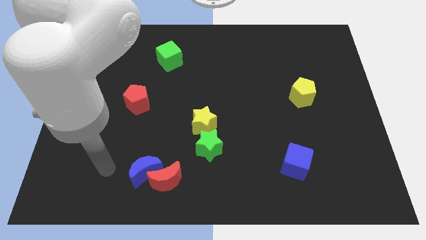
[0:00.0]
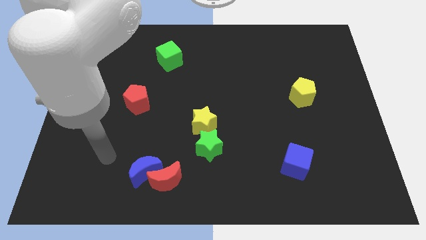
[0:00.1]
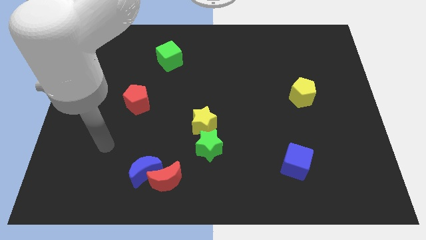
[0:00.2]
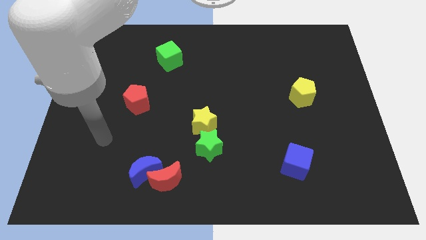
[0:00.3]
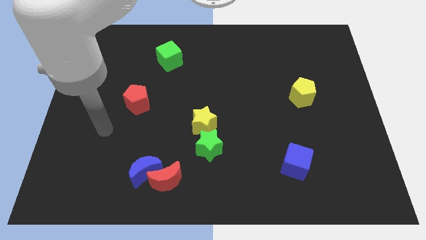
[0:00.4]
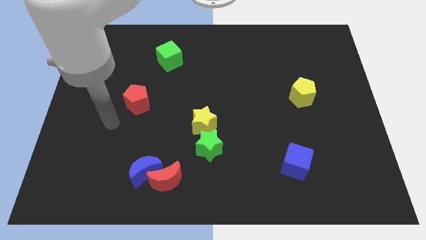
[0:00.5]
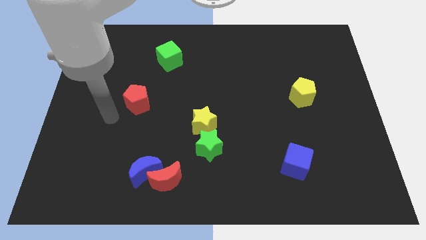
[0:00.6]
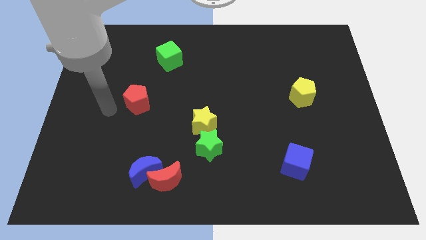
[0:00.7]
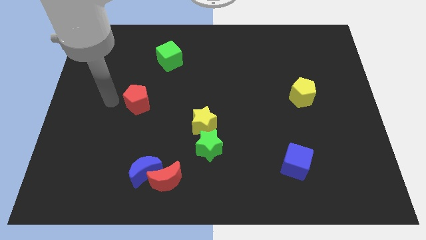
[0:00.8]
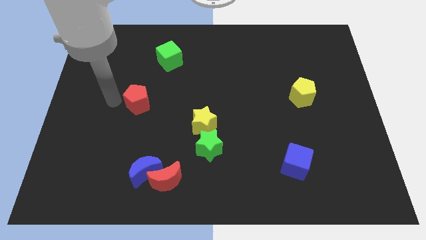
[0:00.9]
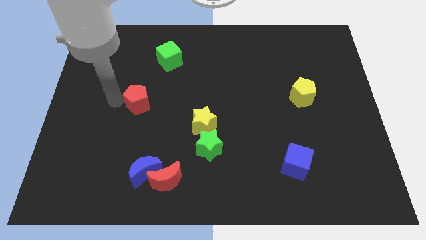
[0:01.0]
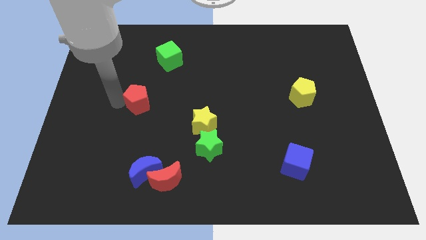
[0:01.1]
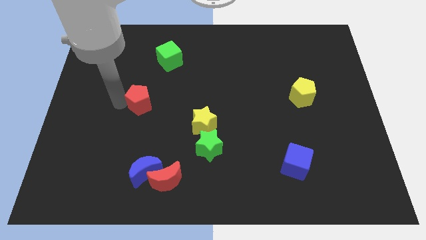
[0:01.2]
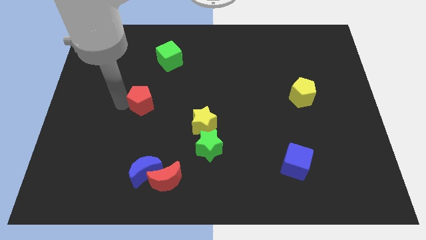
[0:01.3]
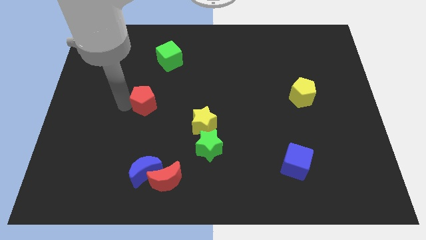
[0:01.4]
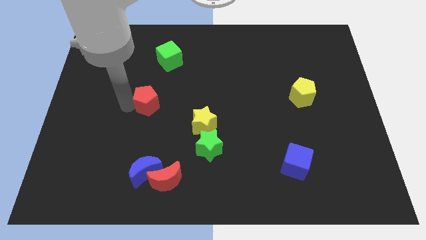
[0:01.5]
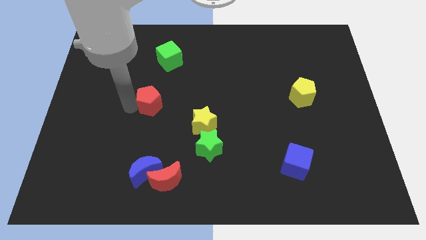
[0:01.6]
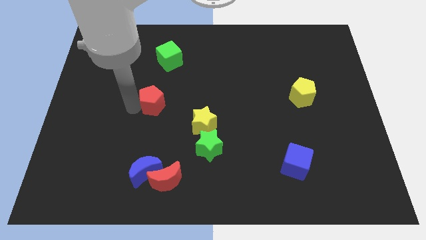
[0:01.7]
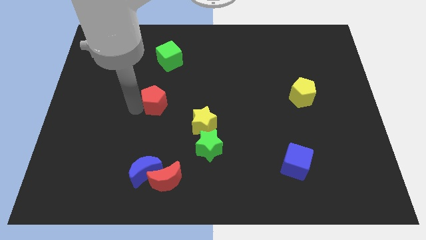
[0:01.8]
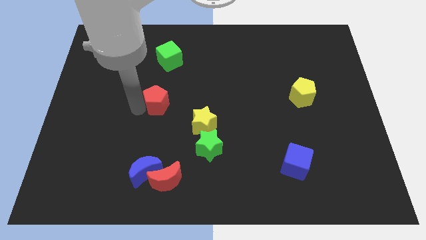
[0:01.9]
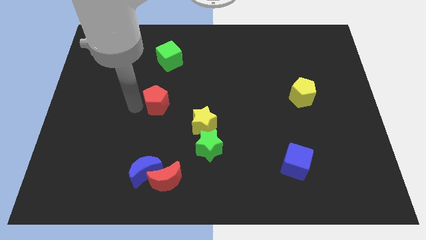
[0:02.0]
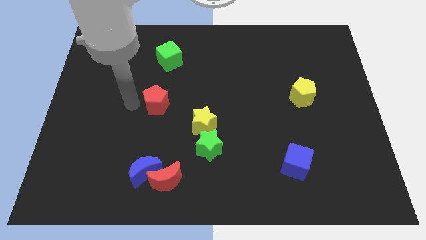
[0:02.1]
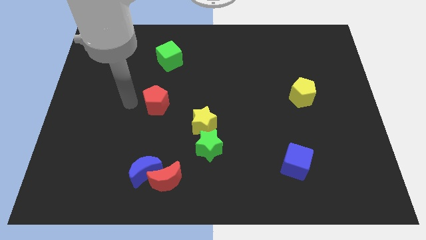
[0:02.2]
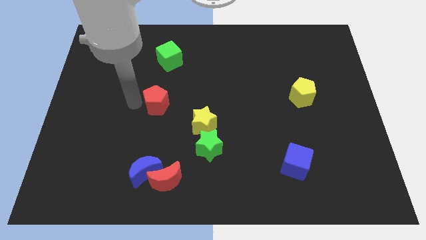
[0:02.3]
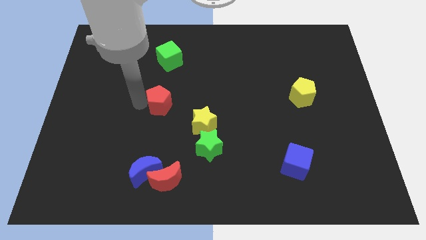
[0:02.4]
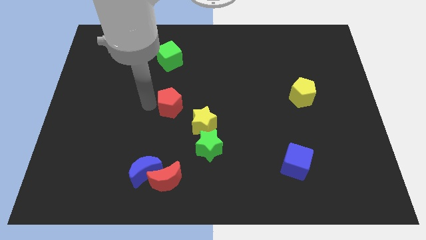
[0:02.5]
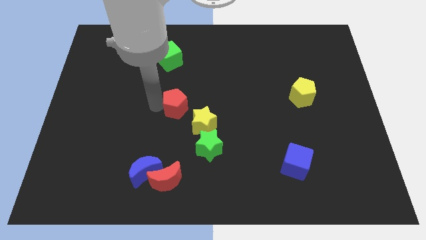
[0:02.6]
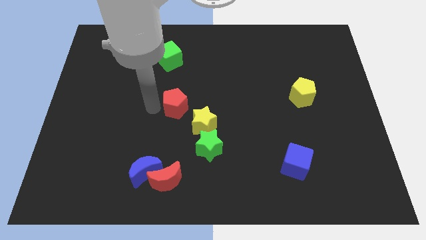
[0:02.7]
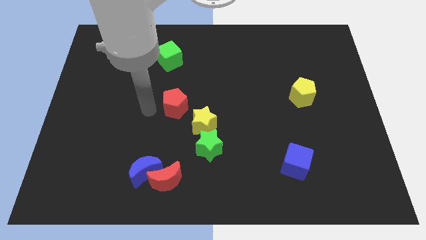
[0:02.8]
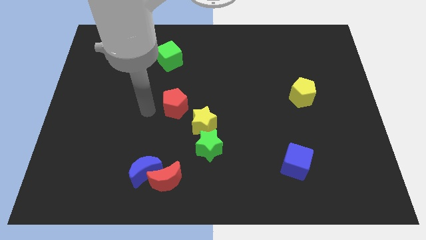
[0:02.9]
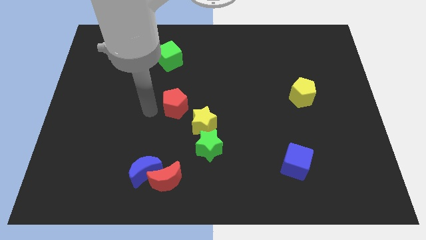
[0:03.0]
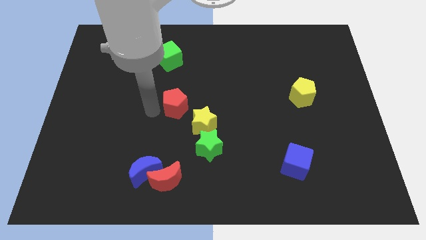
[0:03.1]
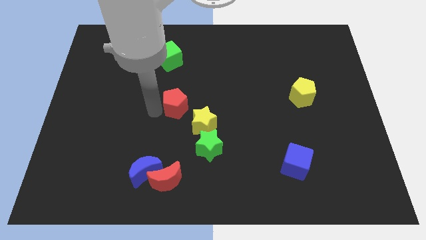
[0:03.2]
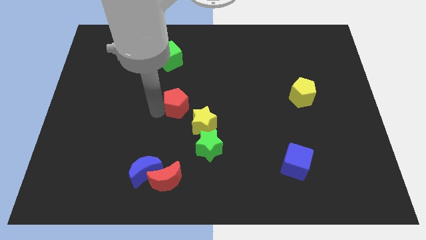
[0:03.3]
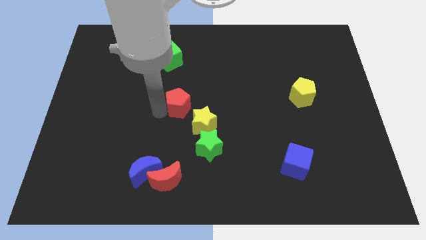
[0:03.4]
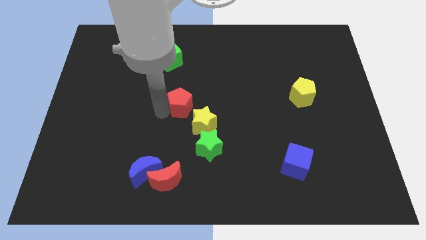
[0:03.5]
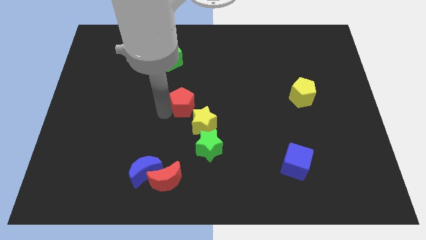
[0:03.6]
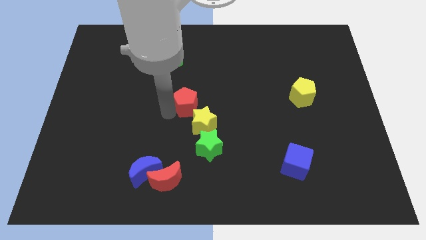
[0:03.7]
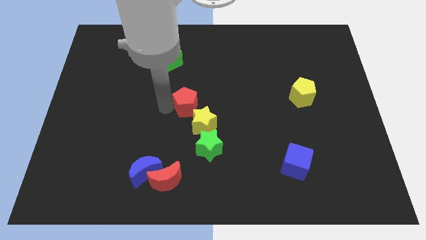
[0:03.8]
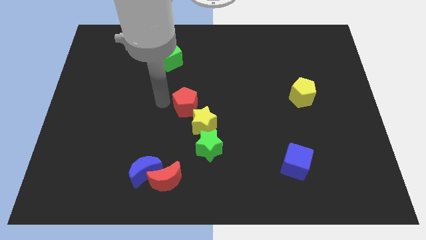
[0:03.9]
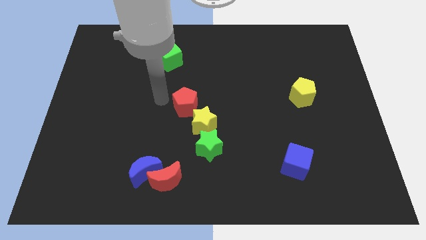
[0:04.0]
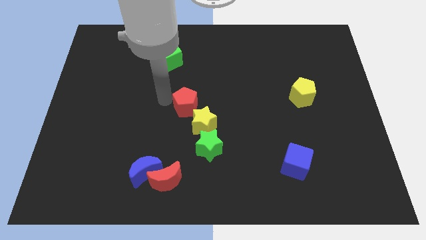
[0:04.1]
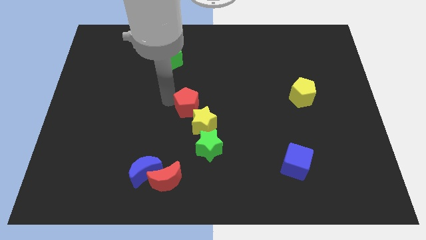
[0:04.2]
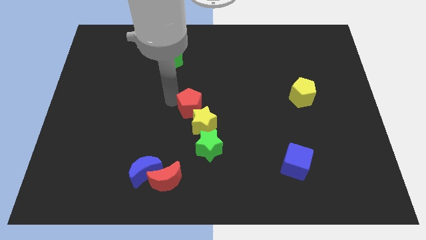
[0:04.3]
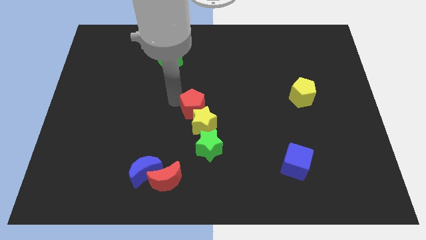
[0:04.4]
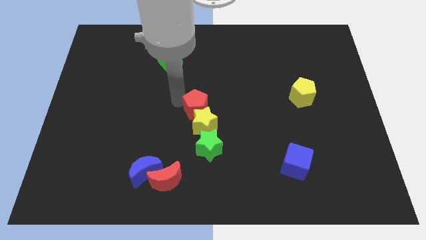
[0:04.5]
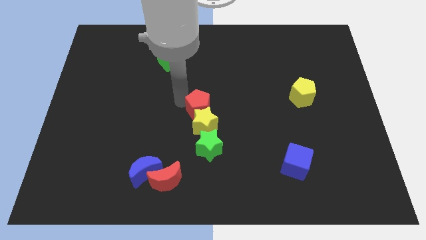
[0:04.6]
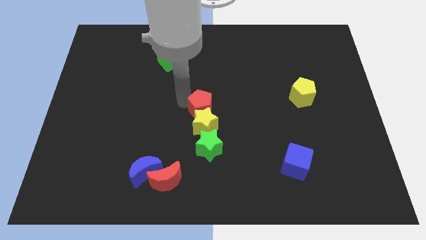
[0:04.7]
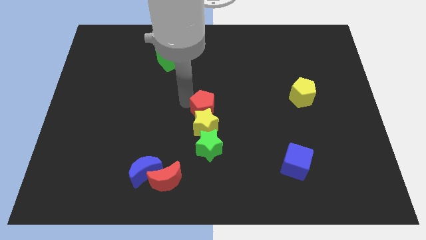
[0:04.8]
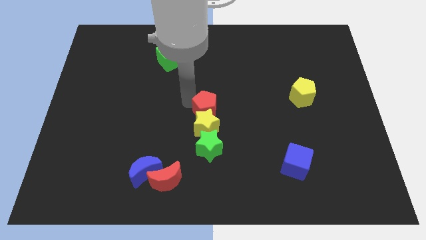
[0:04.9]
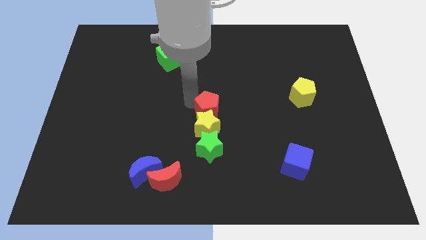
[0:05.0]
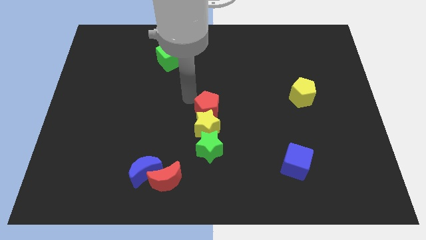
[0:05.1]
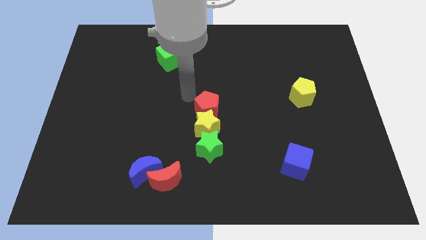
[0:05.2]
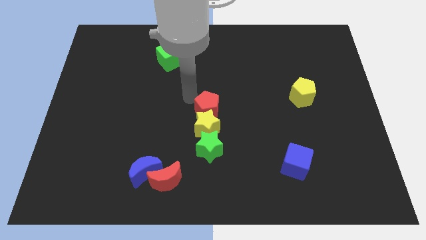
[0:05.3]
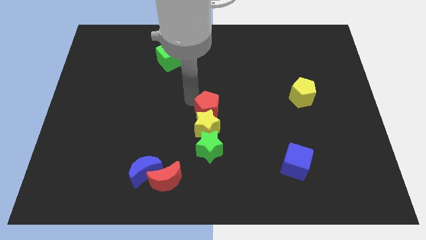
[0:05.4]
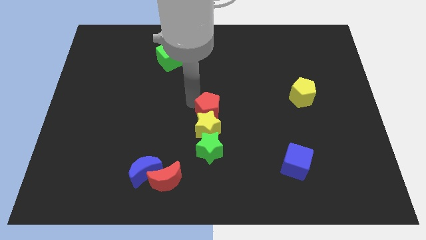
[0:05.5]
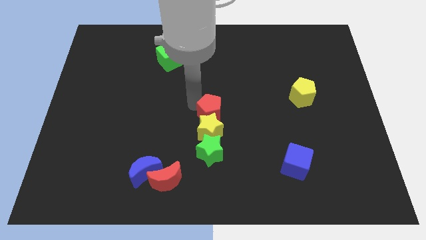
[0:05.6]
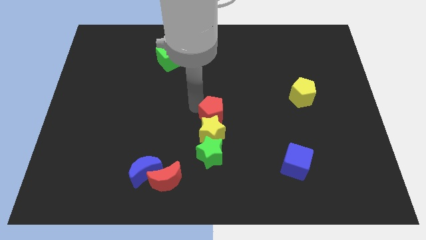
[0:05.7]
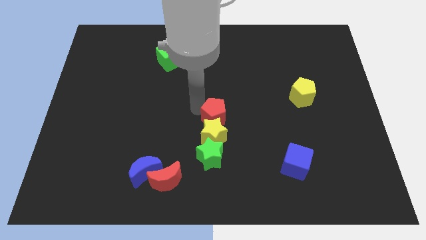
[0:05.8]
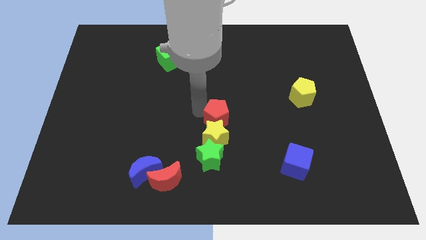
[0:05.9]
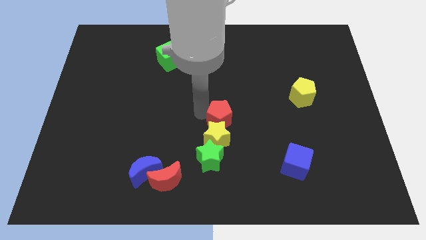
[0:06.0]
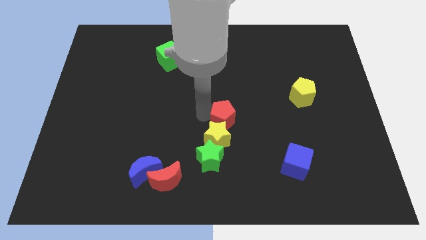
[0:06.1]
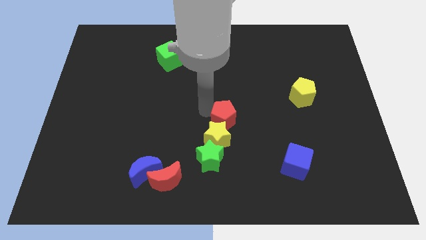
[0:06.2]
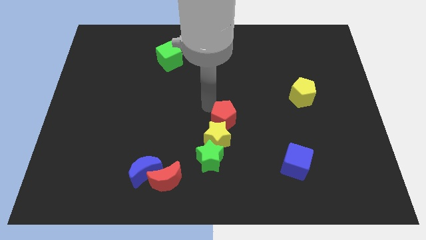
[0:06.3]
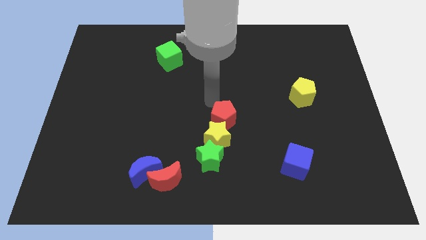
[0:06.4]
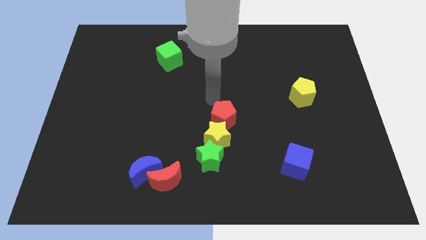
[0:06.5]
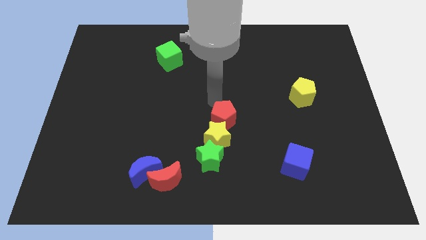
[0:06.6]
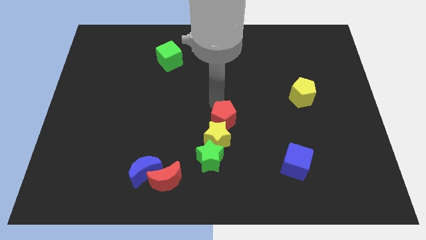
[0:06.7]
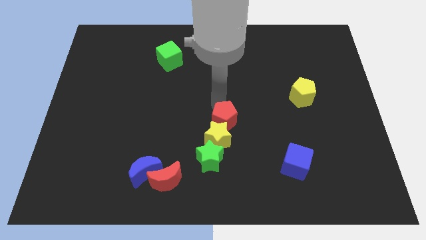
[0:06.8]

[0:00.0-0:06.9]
push the red pentagon to the top right of the green star
